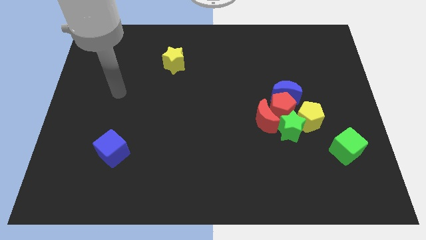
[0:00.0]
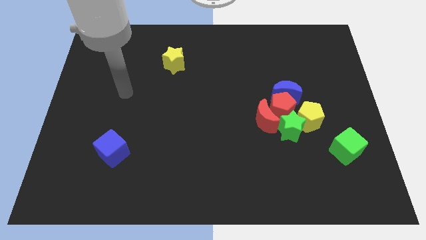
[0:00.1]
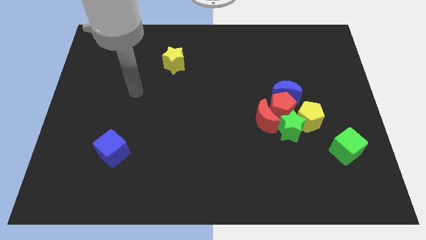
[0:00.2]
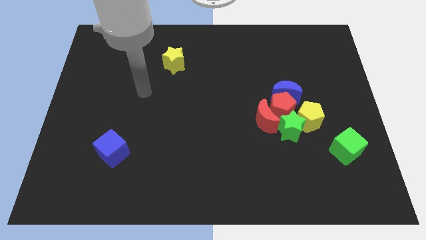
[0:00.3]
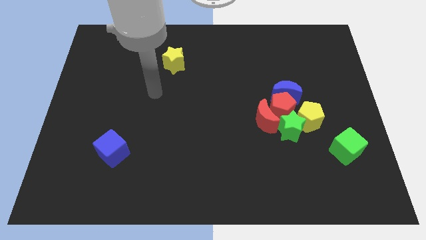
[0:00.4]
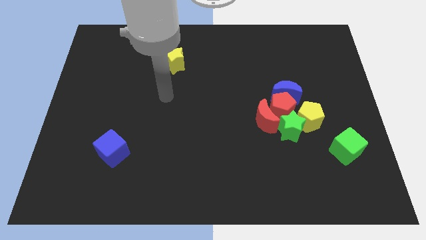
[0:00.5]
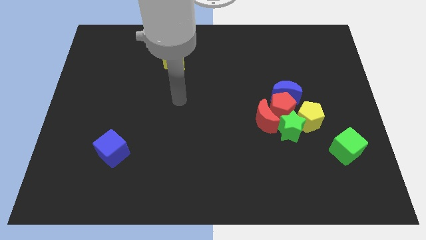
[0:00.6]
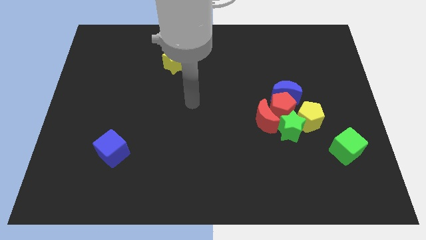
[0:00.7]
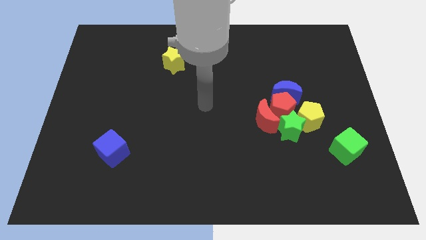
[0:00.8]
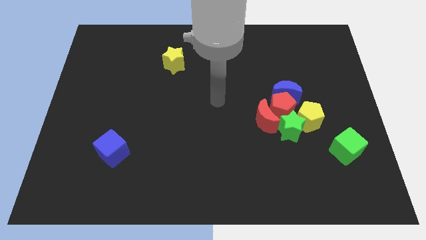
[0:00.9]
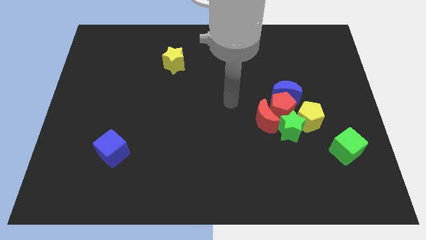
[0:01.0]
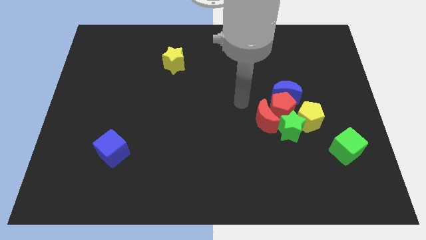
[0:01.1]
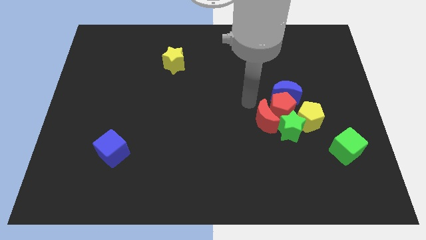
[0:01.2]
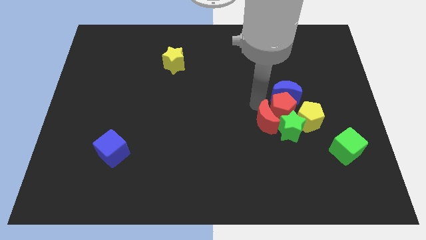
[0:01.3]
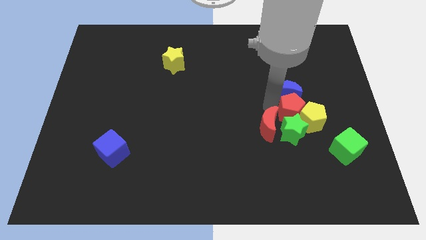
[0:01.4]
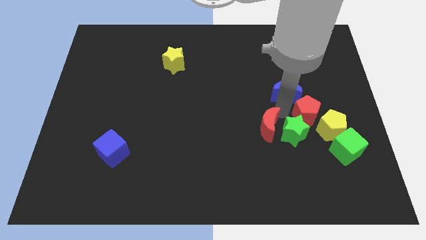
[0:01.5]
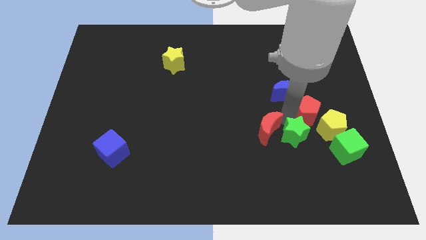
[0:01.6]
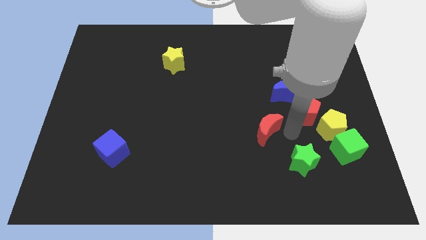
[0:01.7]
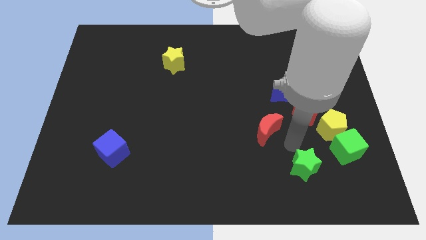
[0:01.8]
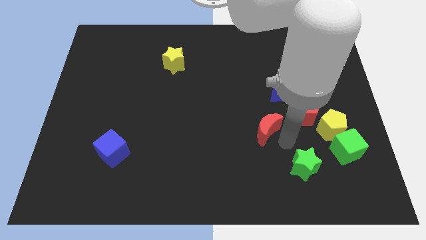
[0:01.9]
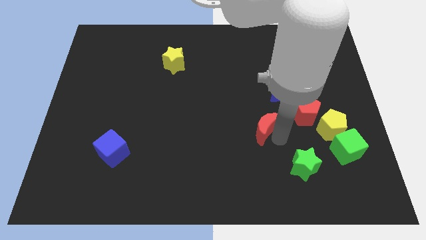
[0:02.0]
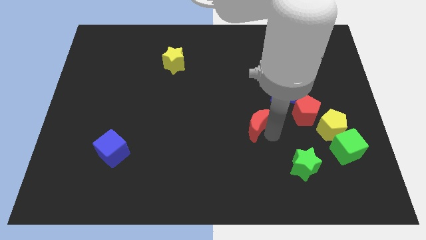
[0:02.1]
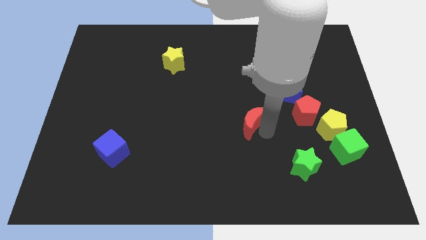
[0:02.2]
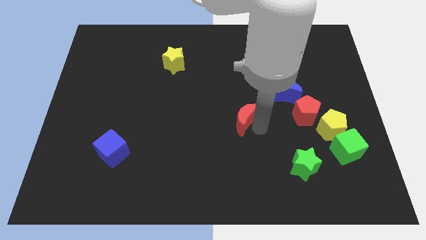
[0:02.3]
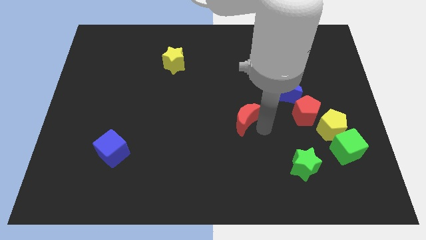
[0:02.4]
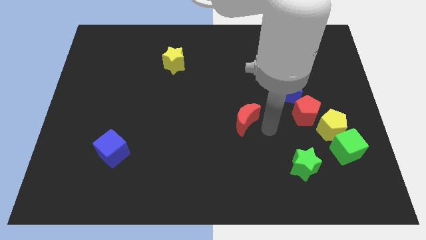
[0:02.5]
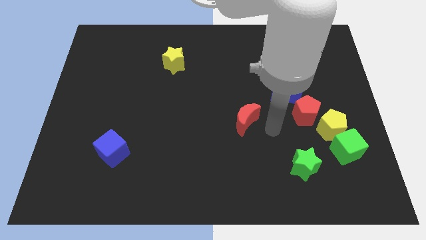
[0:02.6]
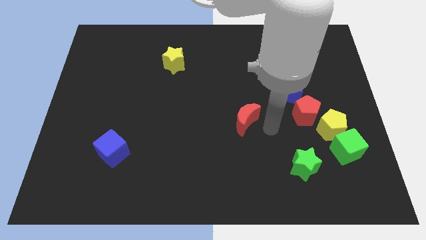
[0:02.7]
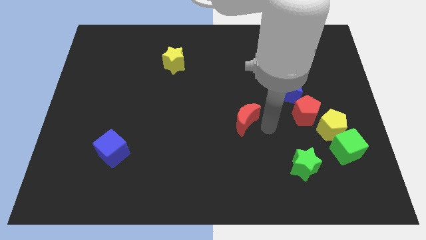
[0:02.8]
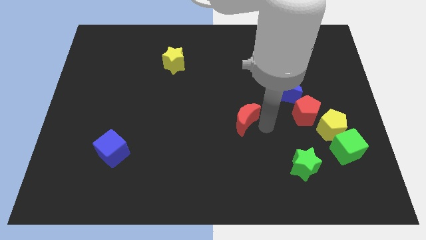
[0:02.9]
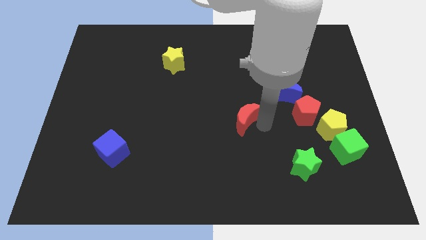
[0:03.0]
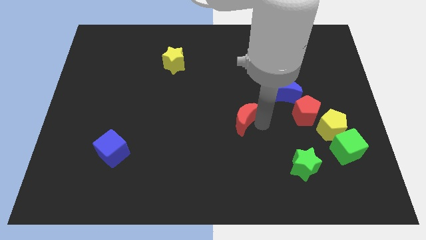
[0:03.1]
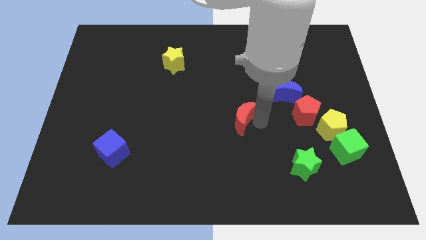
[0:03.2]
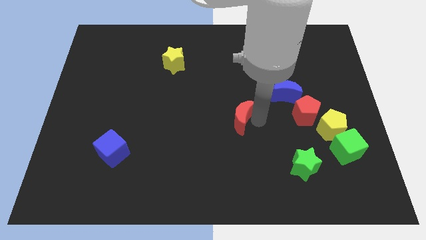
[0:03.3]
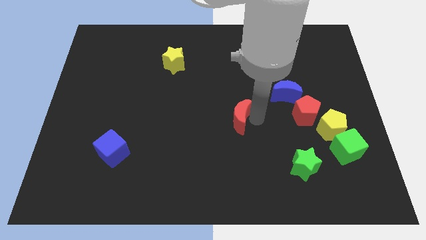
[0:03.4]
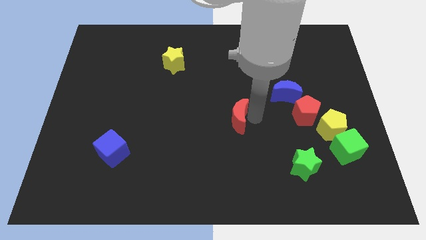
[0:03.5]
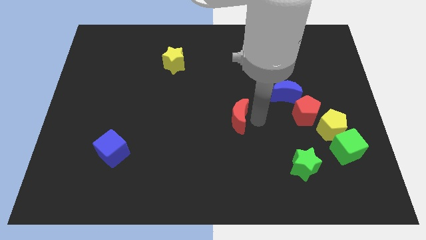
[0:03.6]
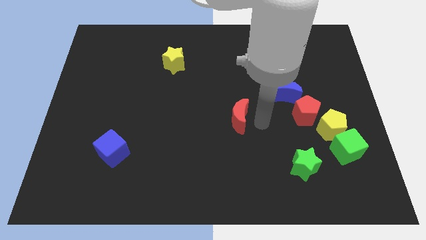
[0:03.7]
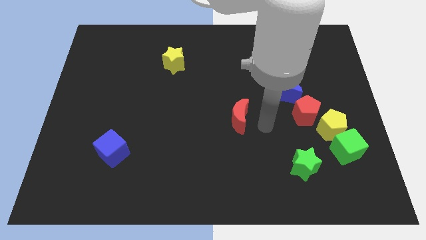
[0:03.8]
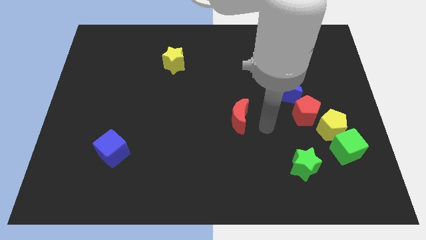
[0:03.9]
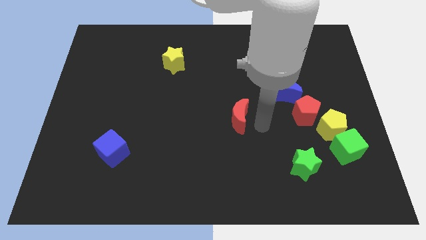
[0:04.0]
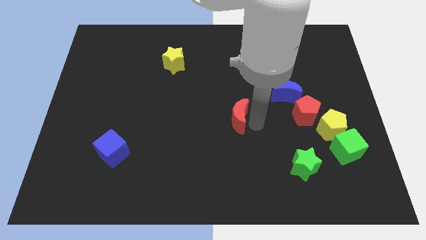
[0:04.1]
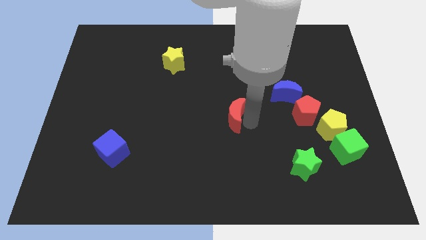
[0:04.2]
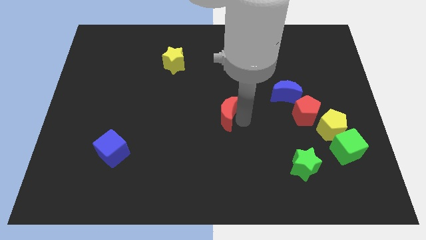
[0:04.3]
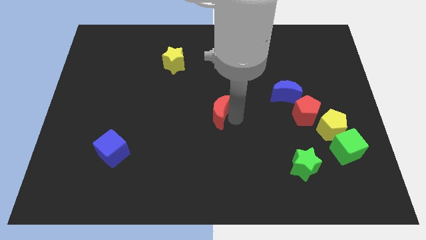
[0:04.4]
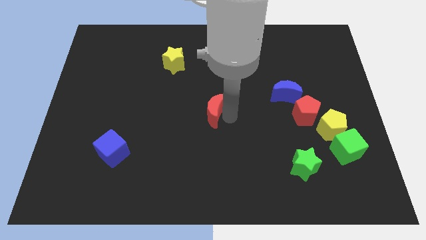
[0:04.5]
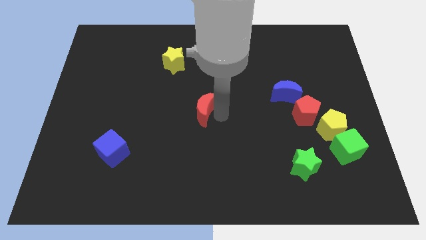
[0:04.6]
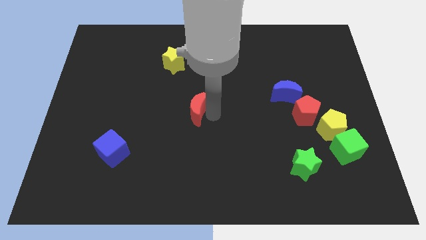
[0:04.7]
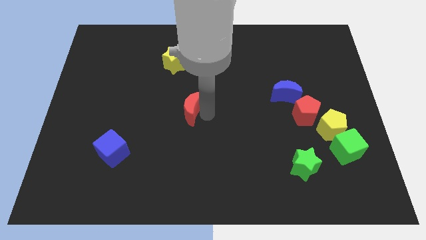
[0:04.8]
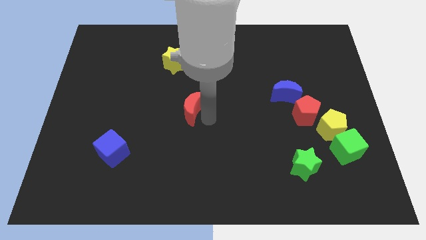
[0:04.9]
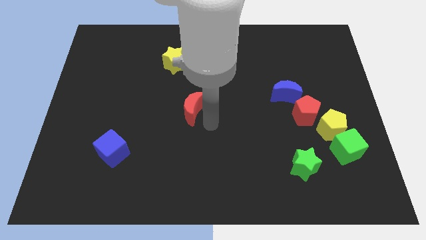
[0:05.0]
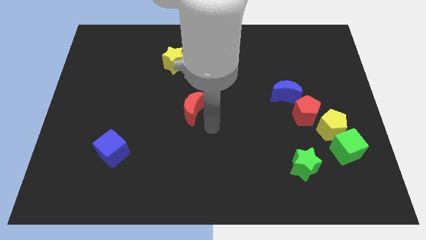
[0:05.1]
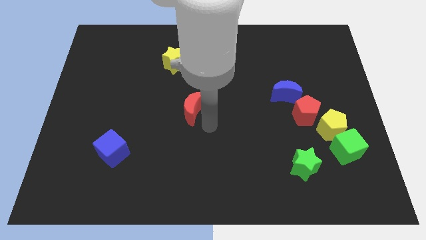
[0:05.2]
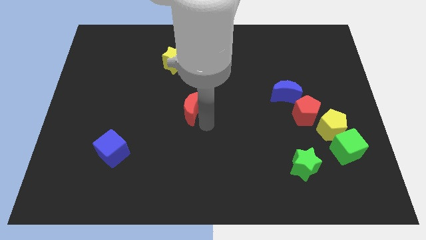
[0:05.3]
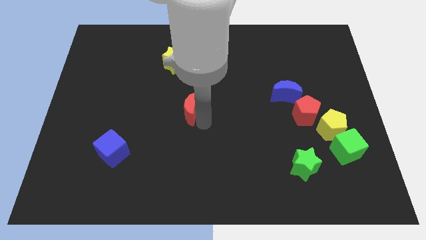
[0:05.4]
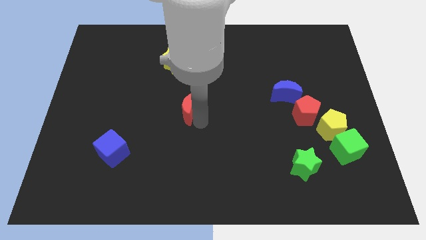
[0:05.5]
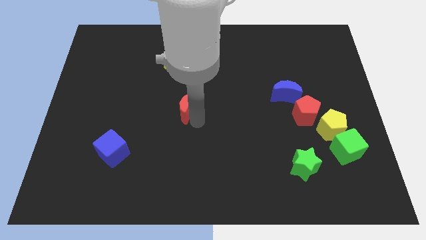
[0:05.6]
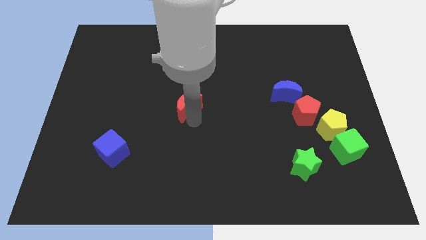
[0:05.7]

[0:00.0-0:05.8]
push the red moon to the bottom side of the yellow star

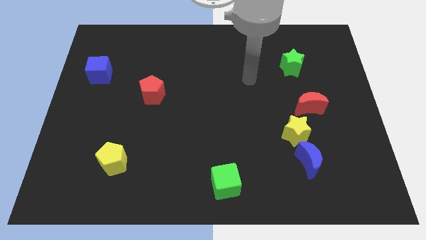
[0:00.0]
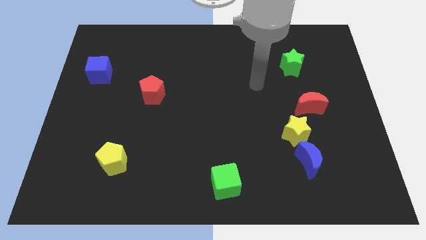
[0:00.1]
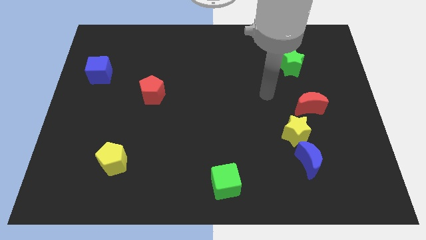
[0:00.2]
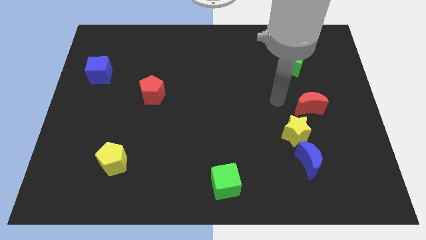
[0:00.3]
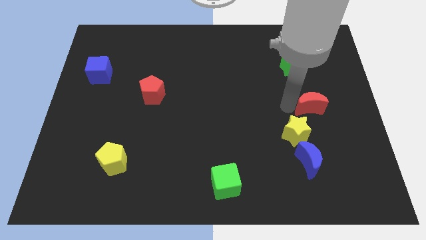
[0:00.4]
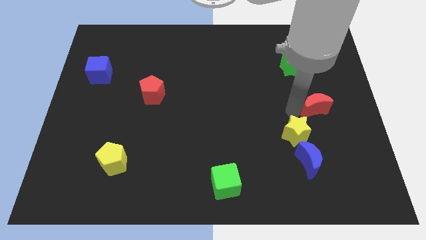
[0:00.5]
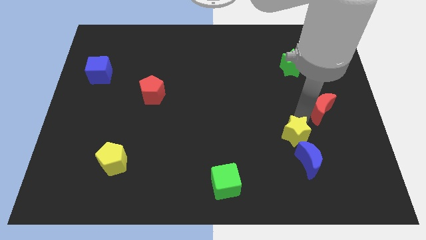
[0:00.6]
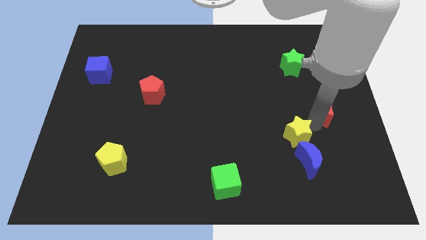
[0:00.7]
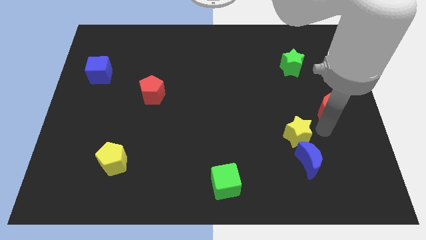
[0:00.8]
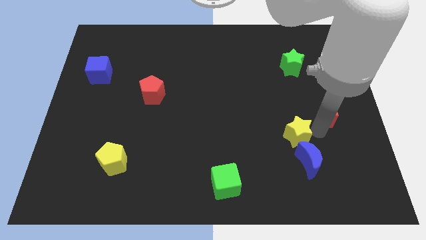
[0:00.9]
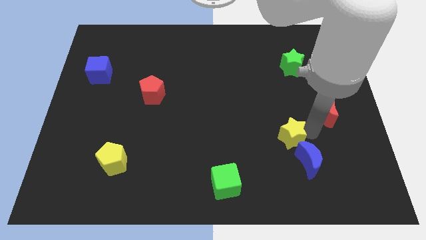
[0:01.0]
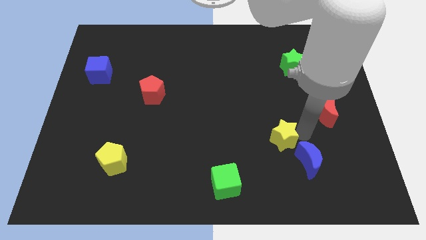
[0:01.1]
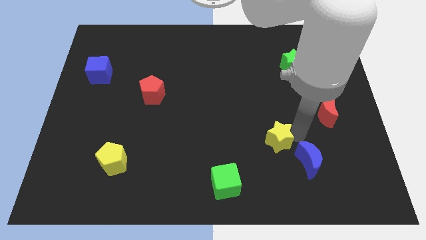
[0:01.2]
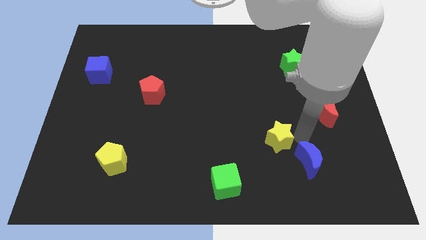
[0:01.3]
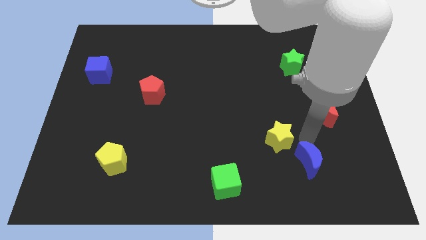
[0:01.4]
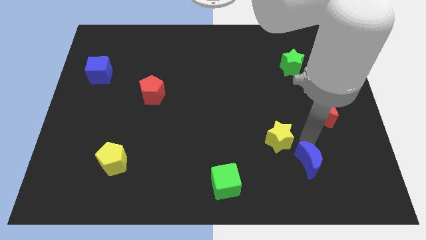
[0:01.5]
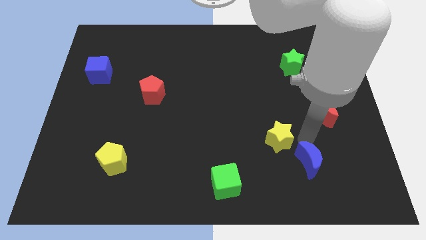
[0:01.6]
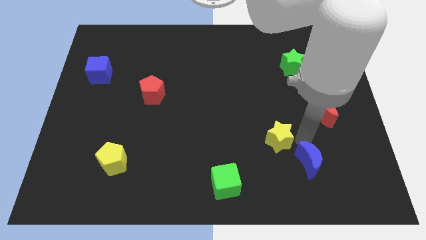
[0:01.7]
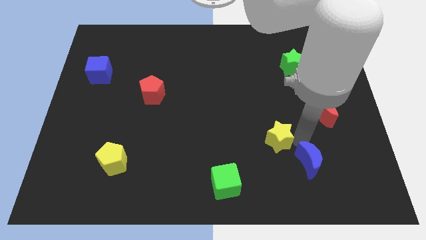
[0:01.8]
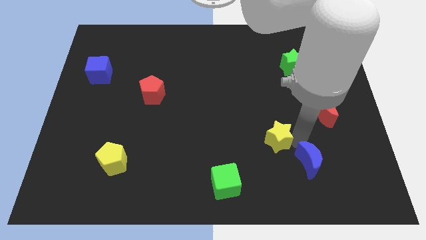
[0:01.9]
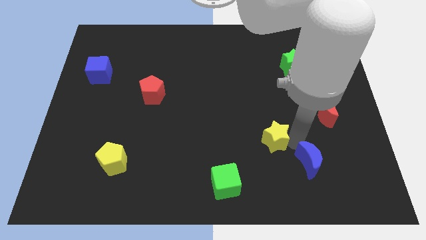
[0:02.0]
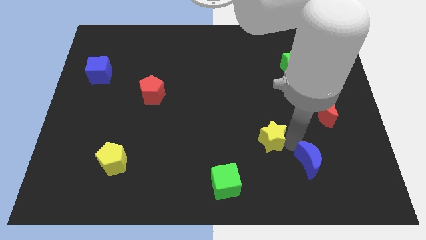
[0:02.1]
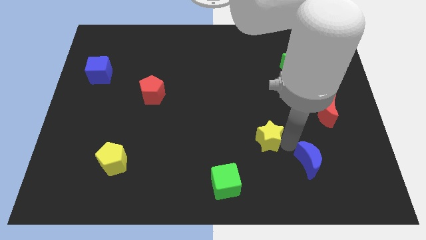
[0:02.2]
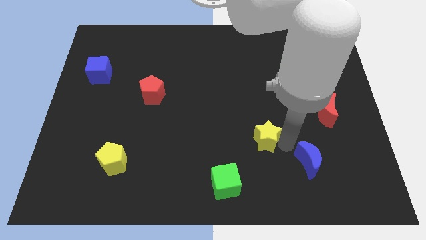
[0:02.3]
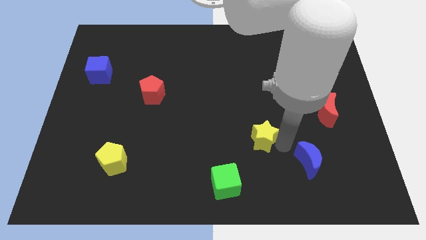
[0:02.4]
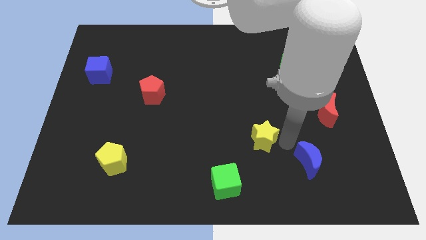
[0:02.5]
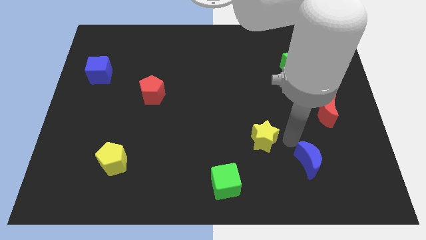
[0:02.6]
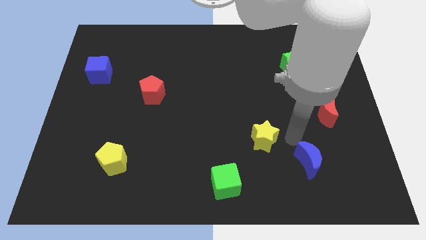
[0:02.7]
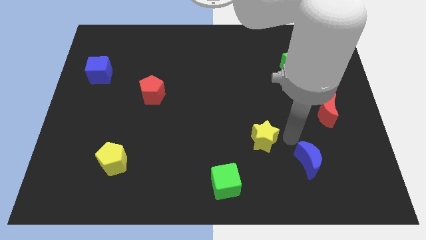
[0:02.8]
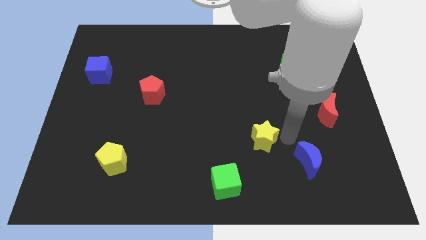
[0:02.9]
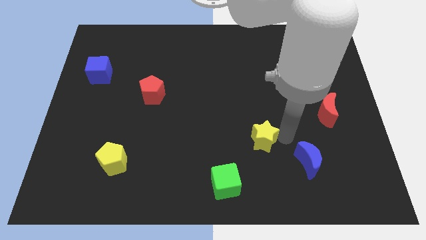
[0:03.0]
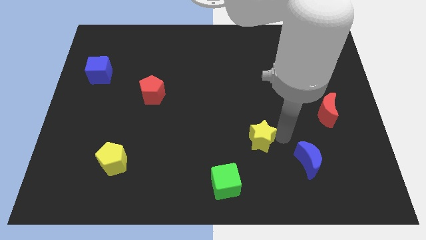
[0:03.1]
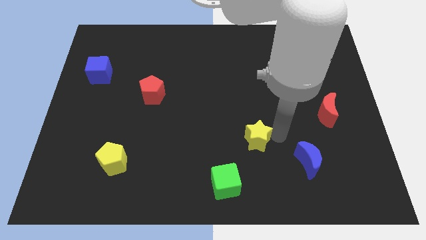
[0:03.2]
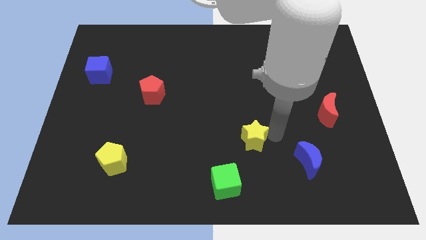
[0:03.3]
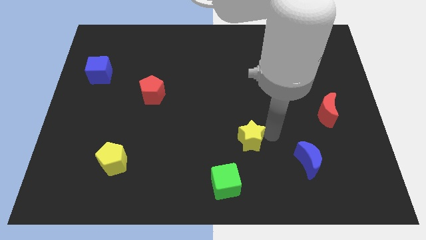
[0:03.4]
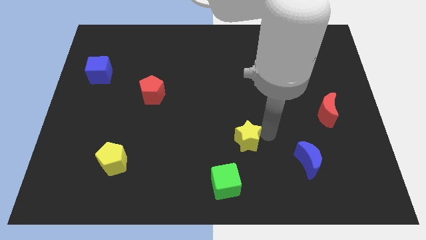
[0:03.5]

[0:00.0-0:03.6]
push the yellow star to the top side of the green cube
